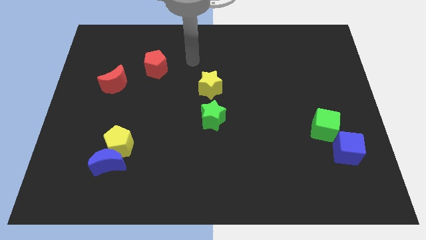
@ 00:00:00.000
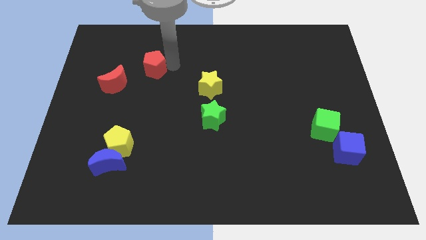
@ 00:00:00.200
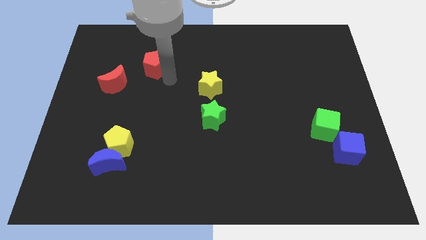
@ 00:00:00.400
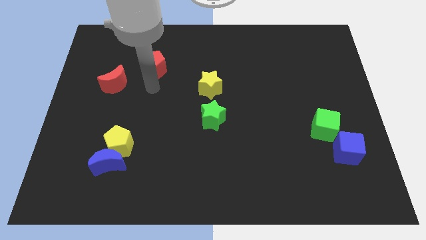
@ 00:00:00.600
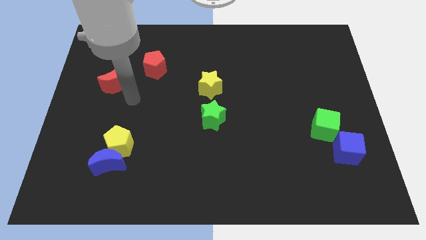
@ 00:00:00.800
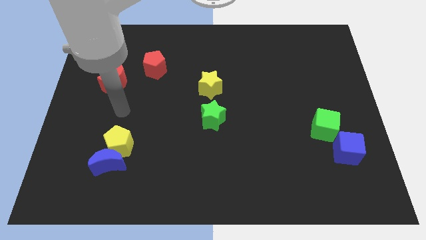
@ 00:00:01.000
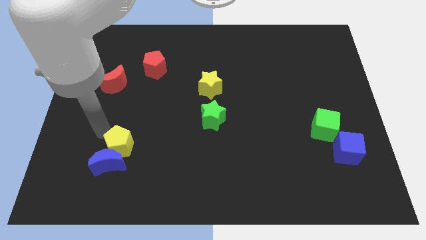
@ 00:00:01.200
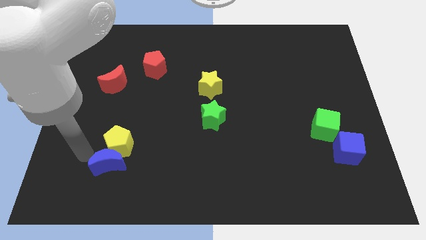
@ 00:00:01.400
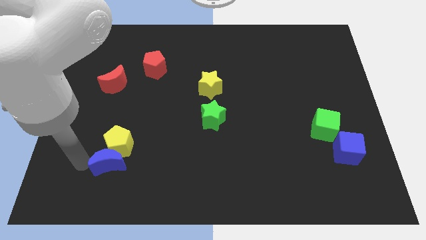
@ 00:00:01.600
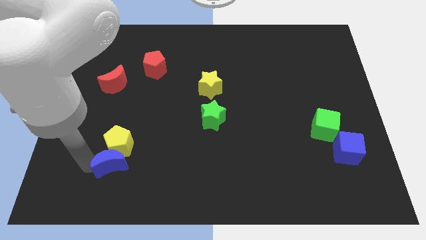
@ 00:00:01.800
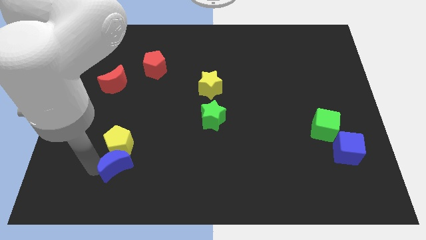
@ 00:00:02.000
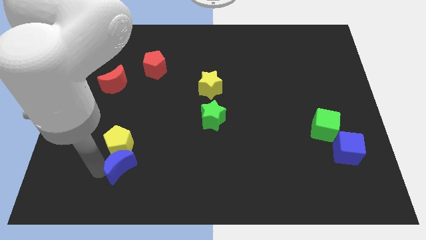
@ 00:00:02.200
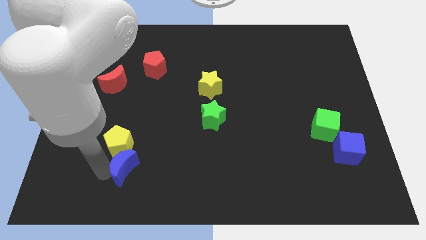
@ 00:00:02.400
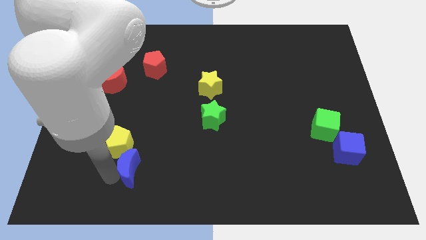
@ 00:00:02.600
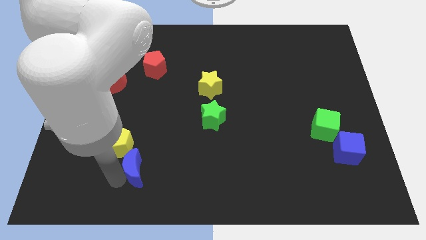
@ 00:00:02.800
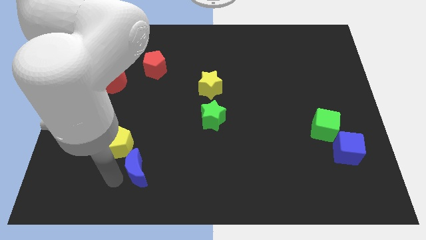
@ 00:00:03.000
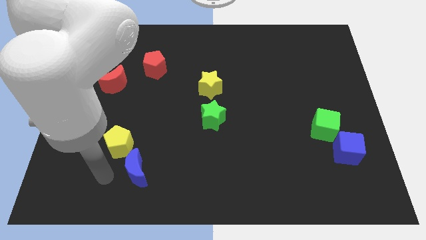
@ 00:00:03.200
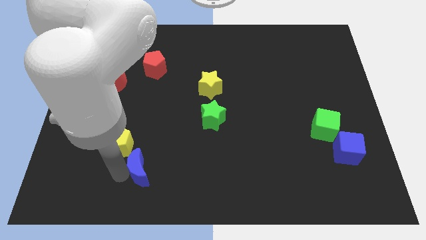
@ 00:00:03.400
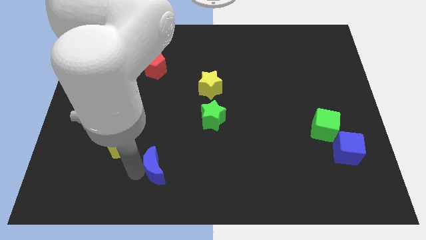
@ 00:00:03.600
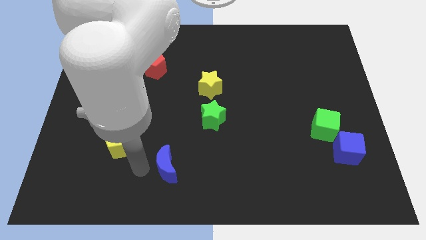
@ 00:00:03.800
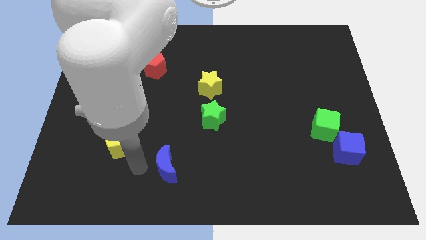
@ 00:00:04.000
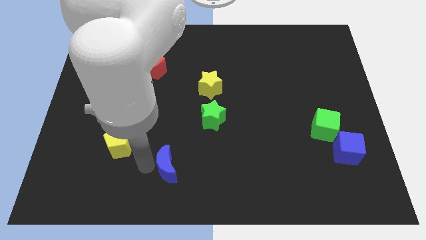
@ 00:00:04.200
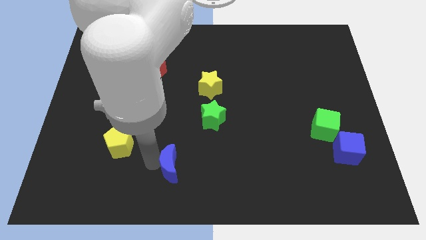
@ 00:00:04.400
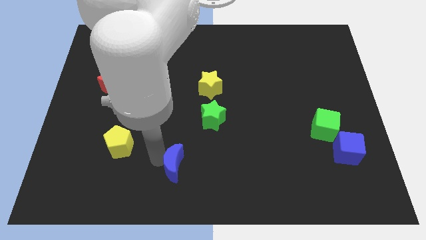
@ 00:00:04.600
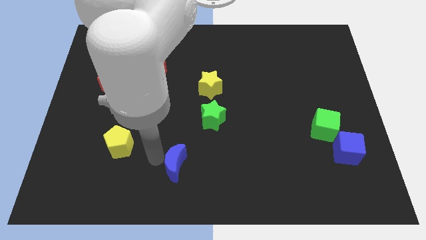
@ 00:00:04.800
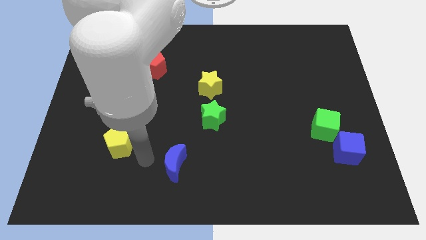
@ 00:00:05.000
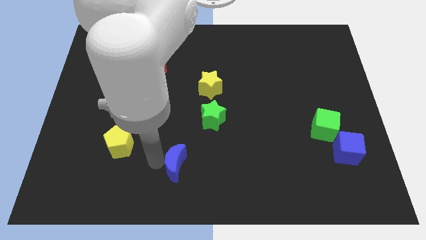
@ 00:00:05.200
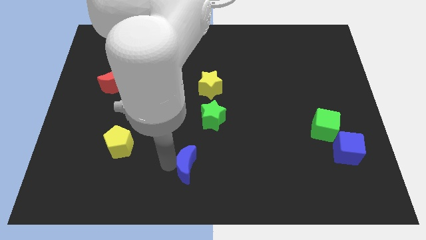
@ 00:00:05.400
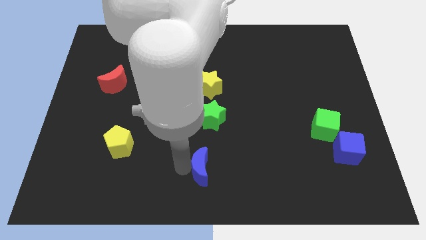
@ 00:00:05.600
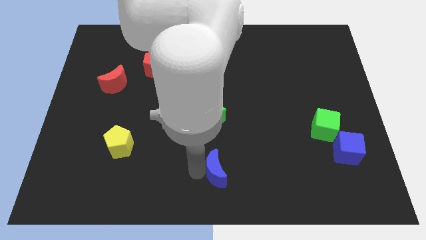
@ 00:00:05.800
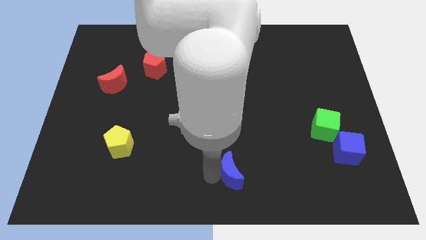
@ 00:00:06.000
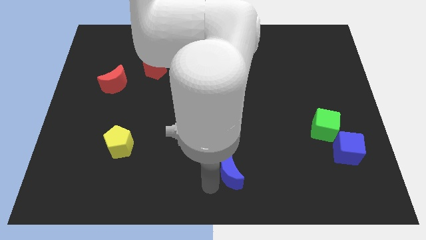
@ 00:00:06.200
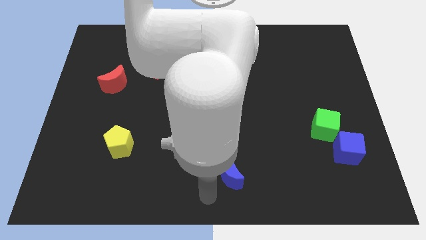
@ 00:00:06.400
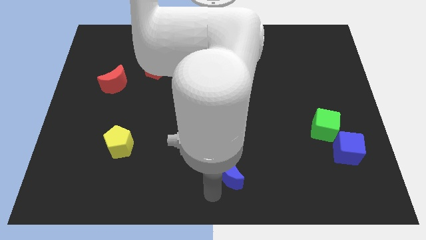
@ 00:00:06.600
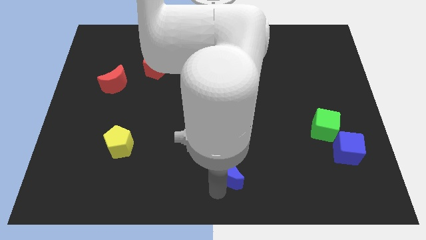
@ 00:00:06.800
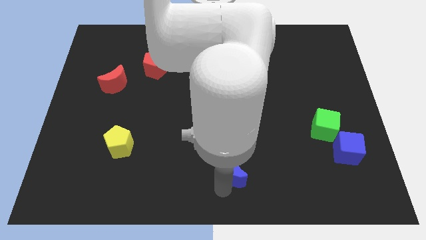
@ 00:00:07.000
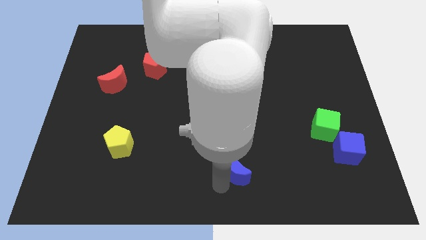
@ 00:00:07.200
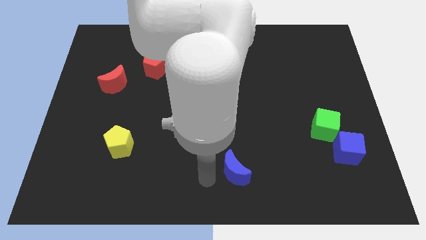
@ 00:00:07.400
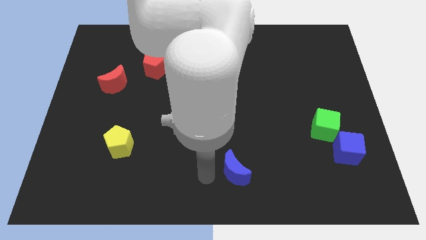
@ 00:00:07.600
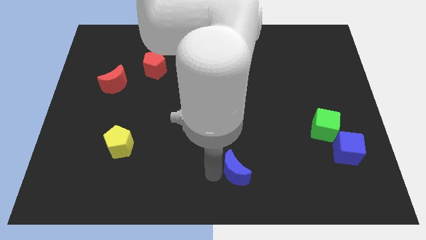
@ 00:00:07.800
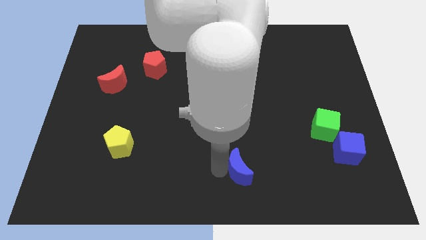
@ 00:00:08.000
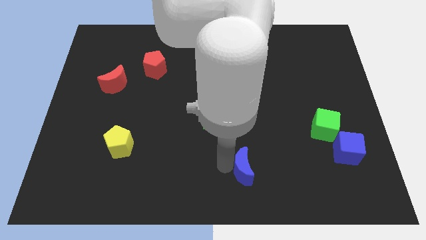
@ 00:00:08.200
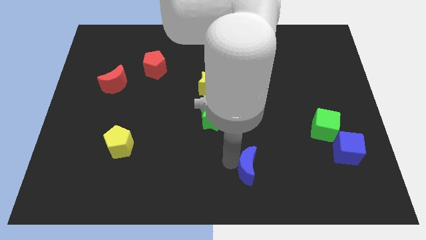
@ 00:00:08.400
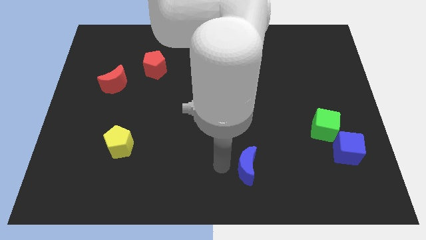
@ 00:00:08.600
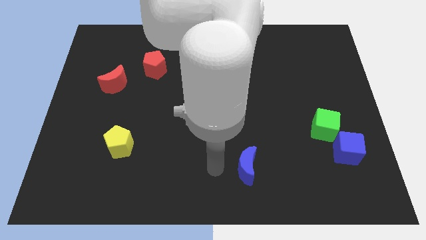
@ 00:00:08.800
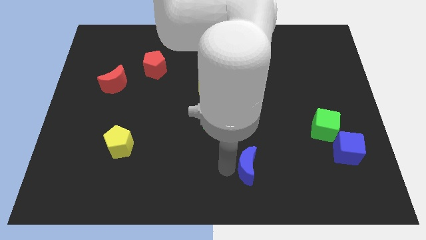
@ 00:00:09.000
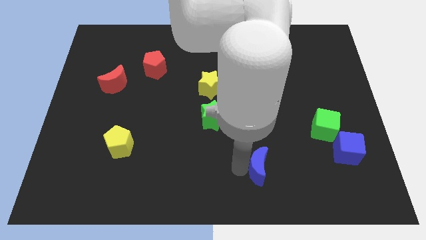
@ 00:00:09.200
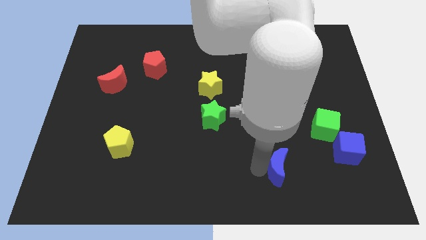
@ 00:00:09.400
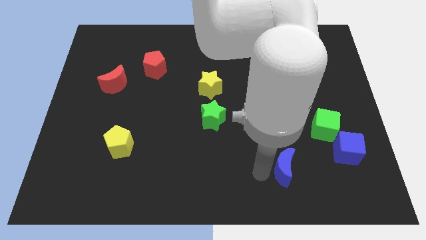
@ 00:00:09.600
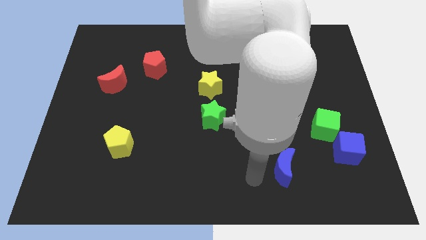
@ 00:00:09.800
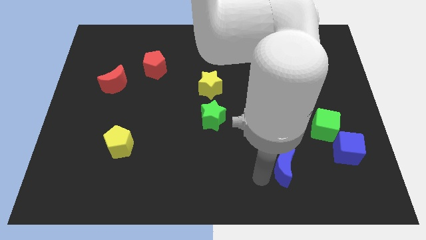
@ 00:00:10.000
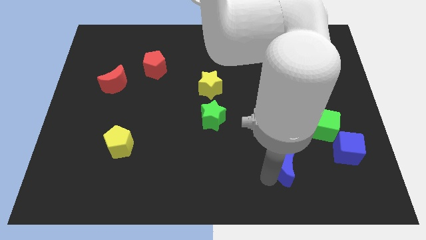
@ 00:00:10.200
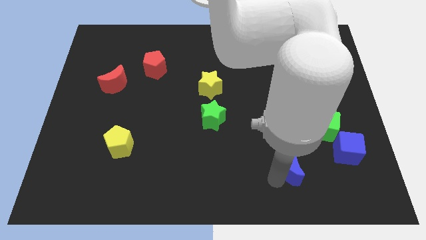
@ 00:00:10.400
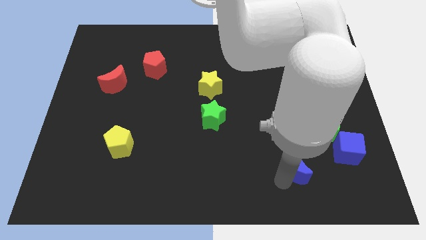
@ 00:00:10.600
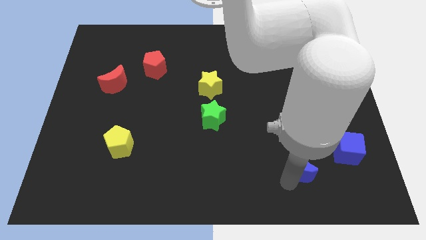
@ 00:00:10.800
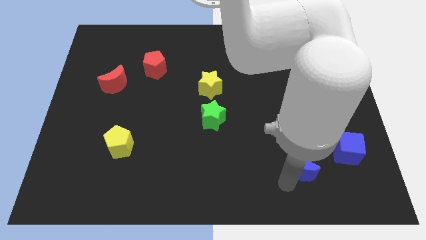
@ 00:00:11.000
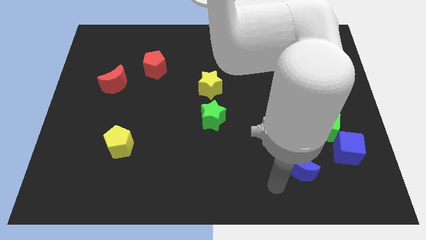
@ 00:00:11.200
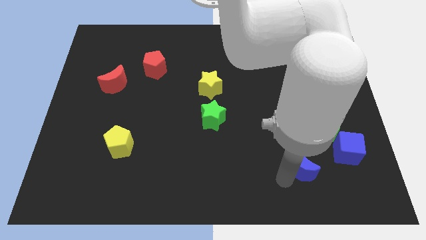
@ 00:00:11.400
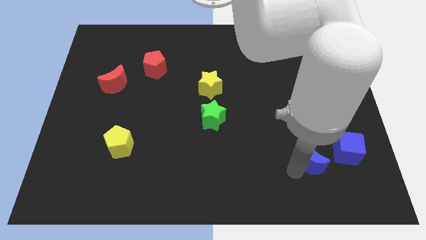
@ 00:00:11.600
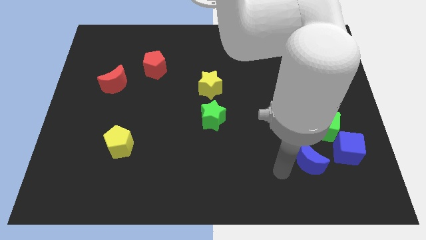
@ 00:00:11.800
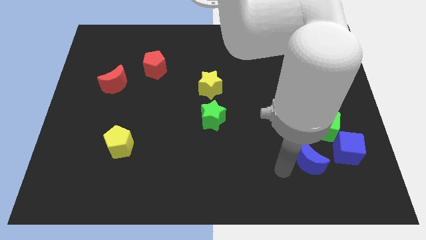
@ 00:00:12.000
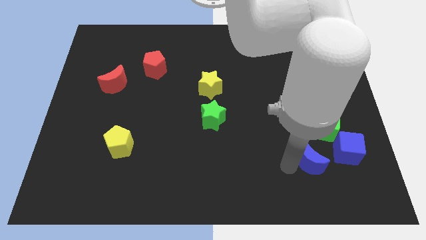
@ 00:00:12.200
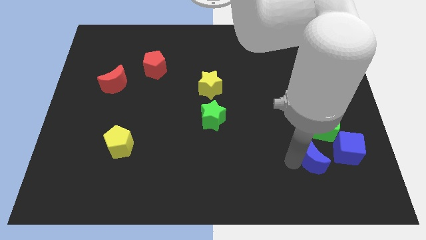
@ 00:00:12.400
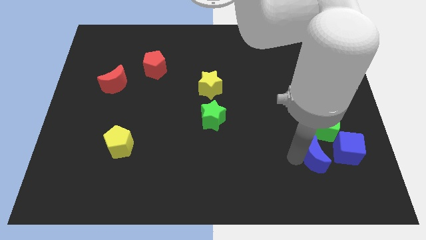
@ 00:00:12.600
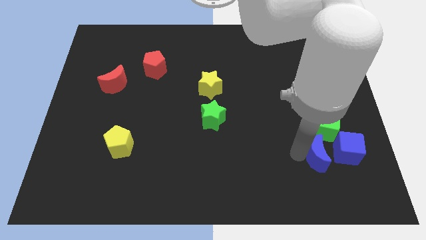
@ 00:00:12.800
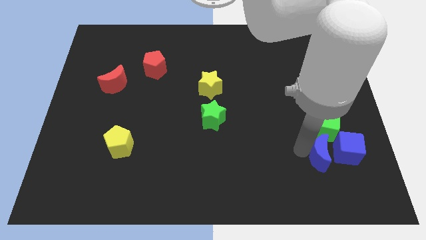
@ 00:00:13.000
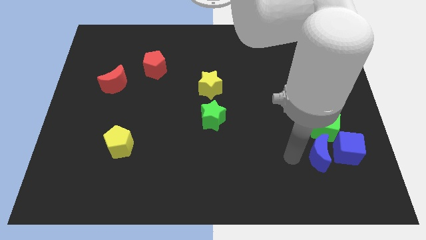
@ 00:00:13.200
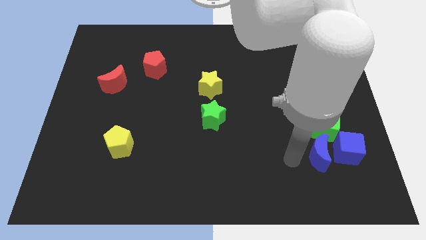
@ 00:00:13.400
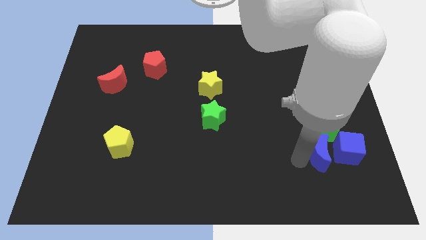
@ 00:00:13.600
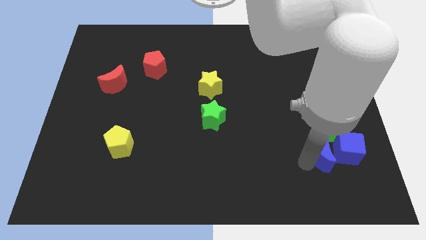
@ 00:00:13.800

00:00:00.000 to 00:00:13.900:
move the blue moon towards the blue cube
